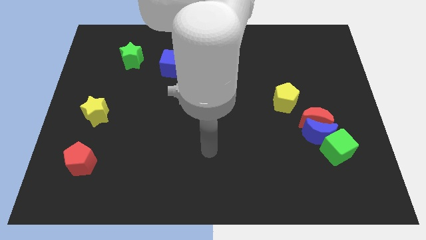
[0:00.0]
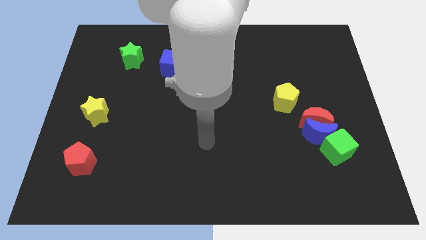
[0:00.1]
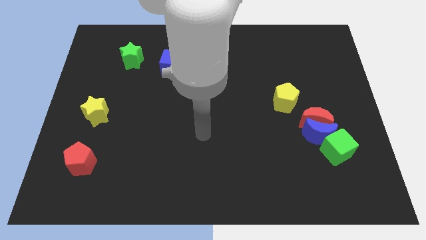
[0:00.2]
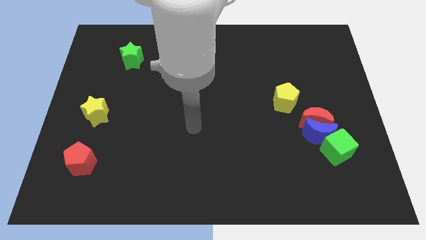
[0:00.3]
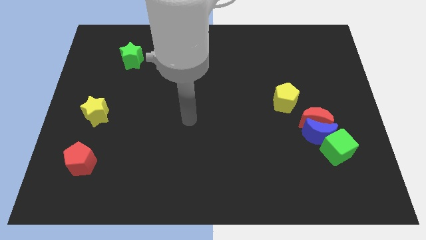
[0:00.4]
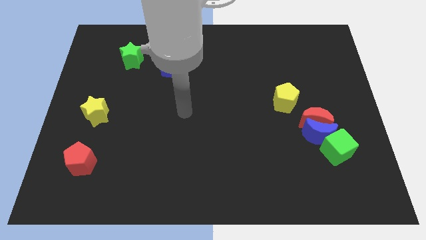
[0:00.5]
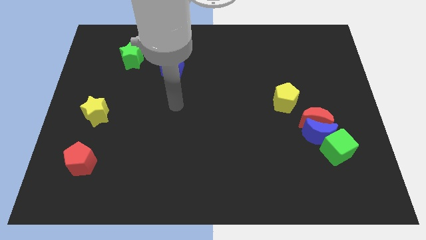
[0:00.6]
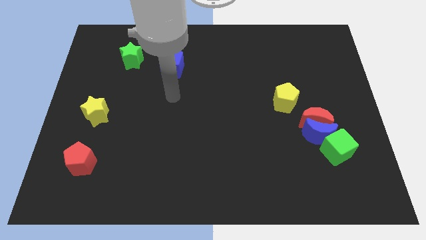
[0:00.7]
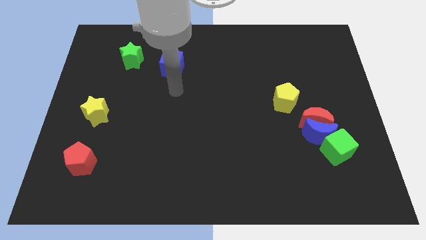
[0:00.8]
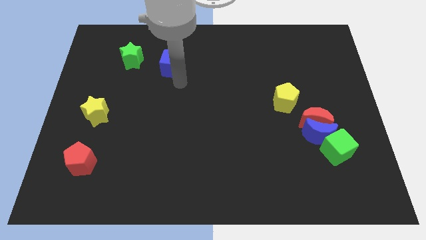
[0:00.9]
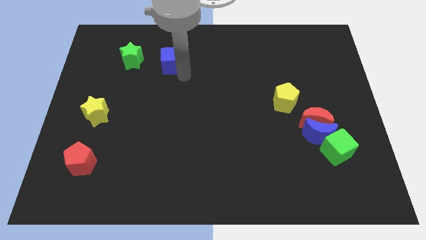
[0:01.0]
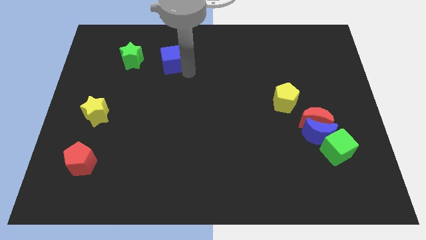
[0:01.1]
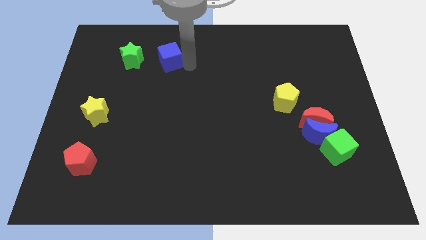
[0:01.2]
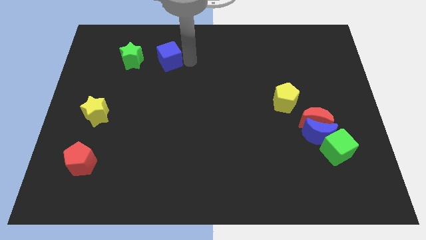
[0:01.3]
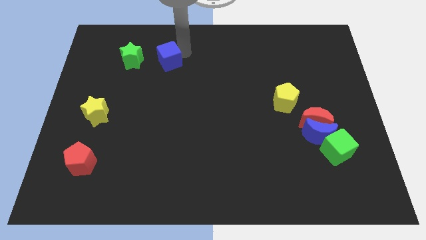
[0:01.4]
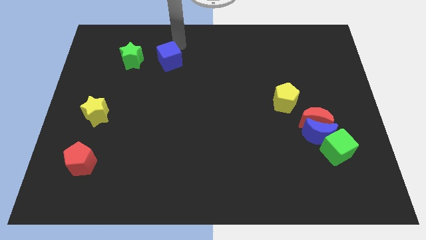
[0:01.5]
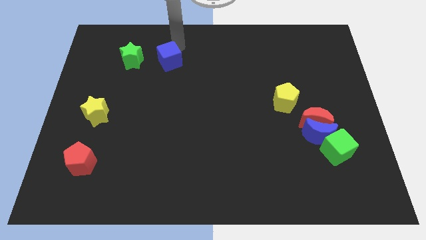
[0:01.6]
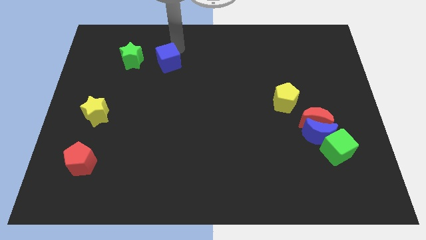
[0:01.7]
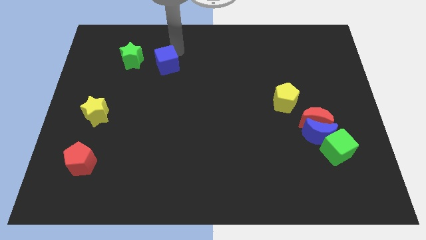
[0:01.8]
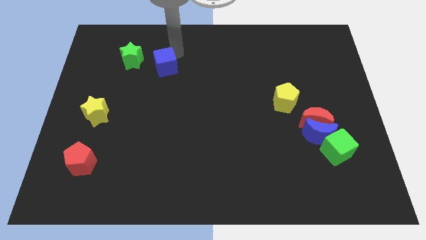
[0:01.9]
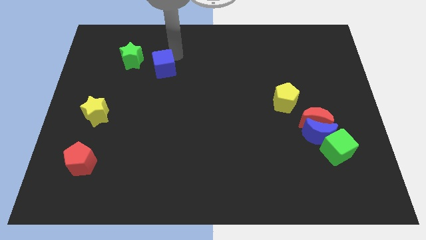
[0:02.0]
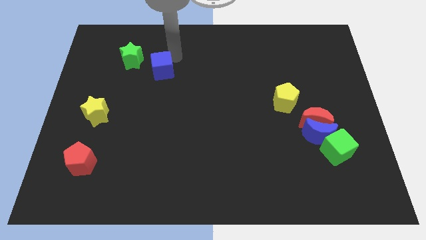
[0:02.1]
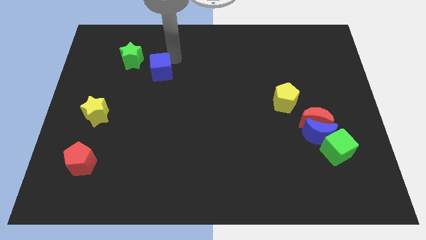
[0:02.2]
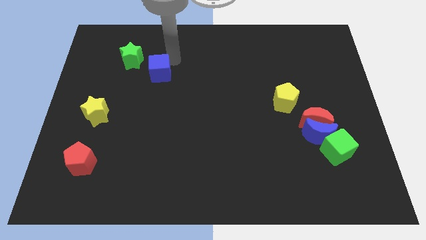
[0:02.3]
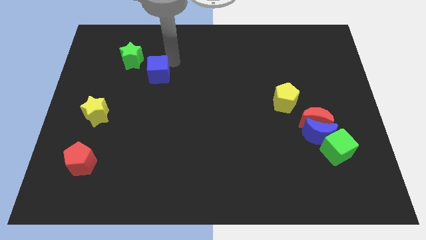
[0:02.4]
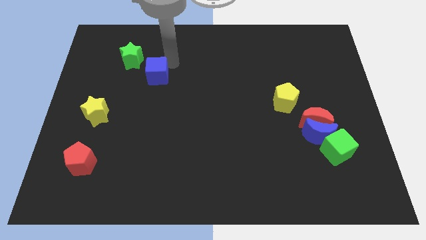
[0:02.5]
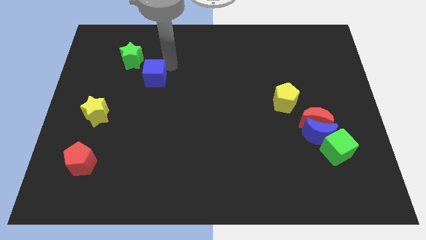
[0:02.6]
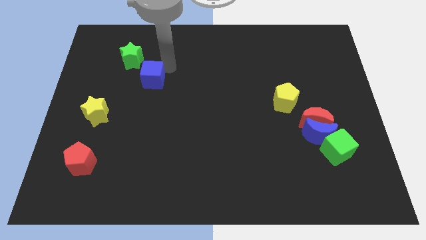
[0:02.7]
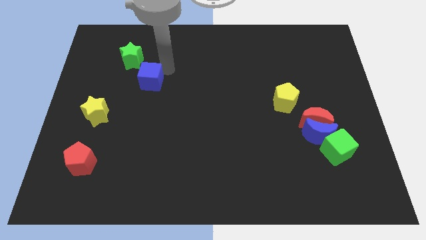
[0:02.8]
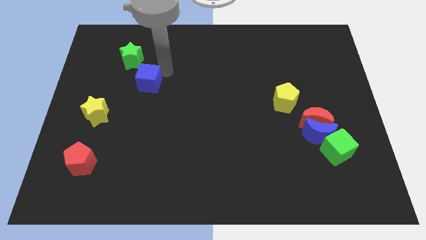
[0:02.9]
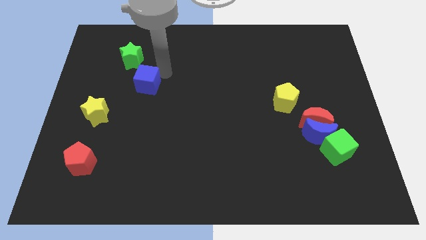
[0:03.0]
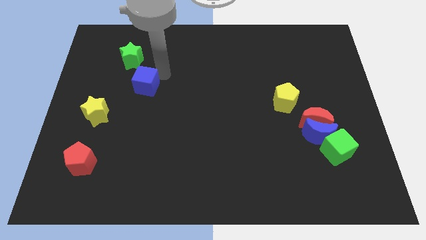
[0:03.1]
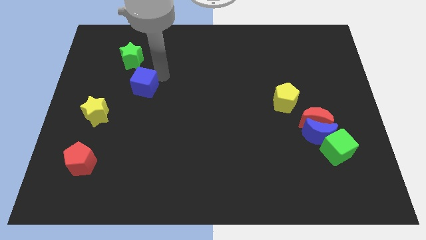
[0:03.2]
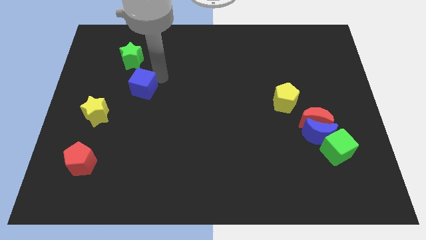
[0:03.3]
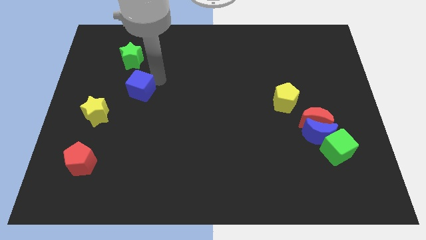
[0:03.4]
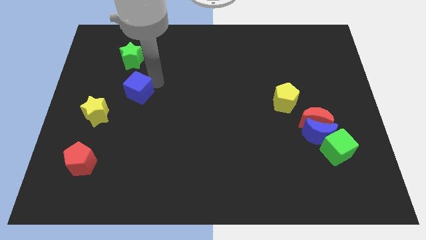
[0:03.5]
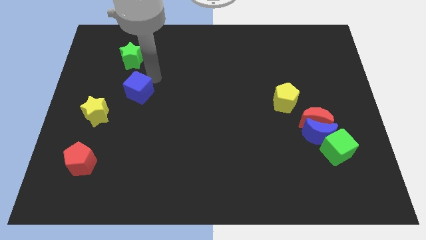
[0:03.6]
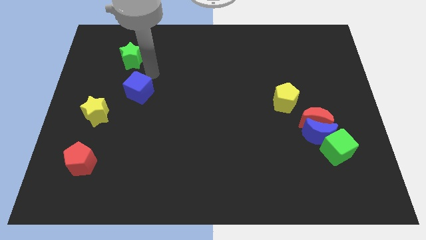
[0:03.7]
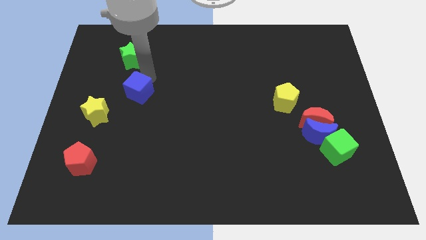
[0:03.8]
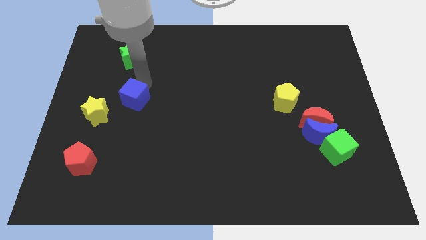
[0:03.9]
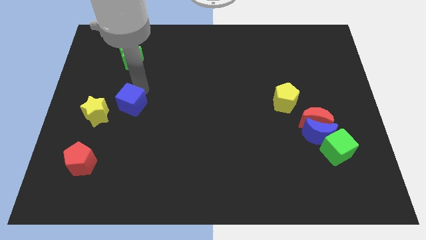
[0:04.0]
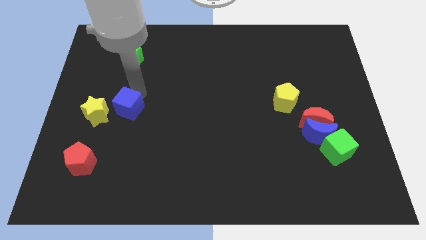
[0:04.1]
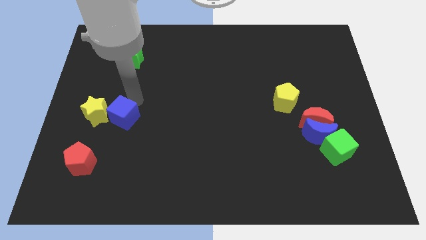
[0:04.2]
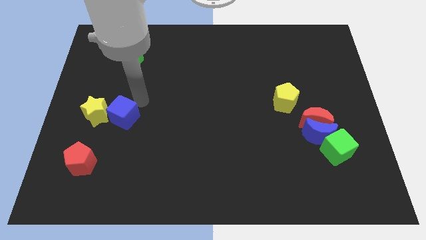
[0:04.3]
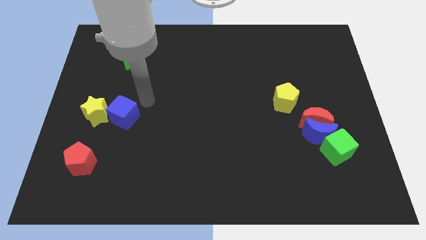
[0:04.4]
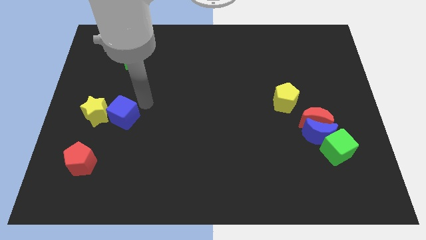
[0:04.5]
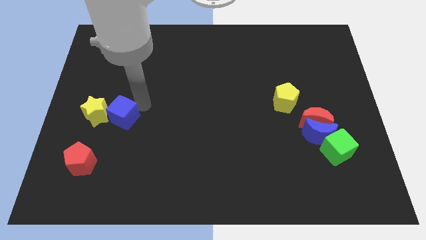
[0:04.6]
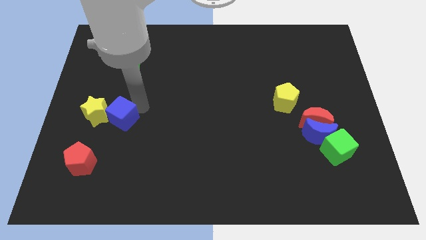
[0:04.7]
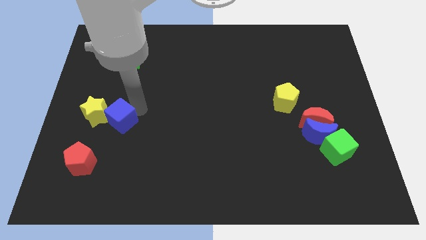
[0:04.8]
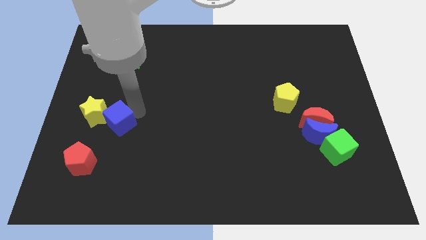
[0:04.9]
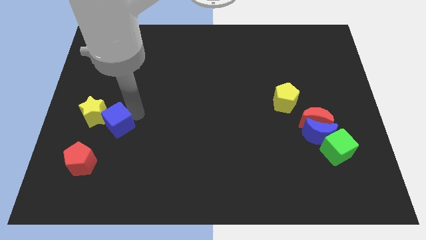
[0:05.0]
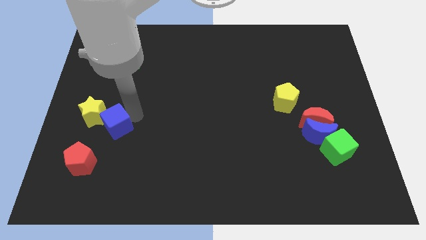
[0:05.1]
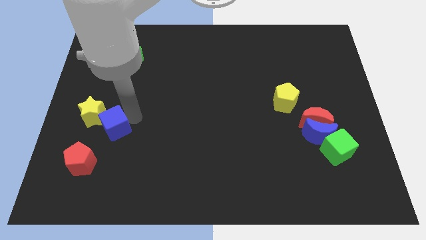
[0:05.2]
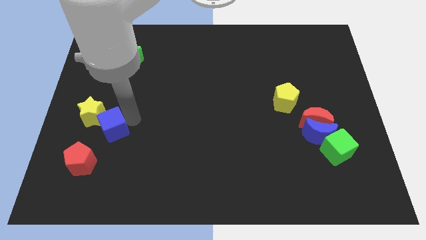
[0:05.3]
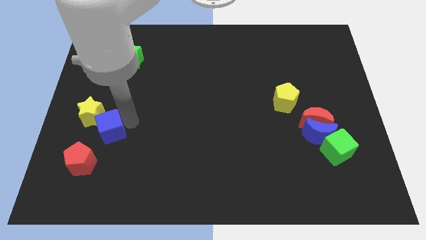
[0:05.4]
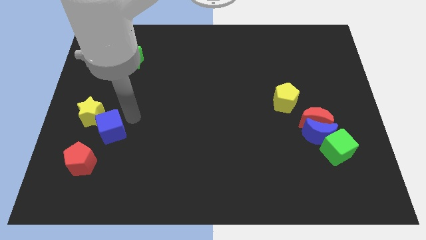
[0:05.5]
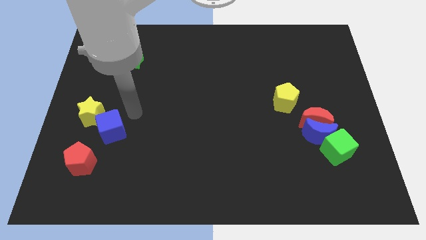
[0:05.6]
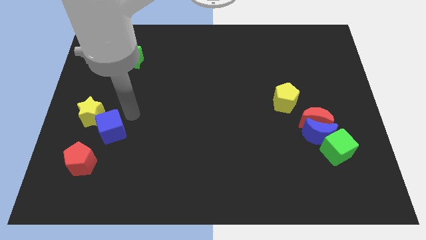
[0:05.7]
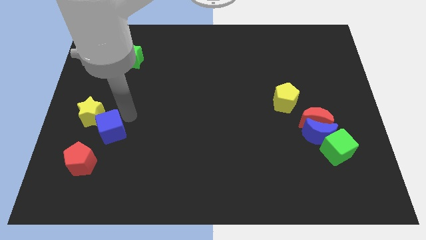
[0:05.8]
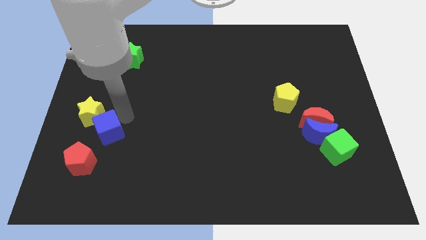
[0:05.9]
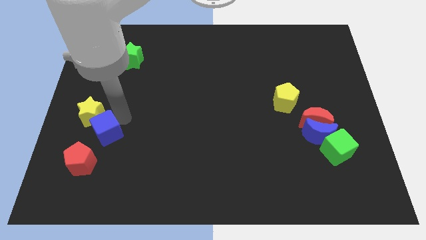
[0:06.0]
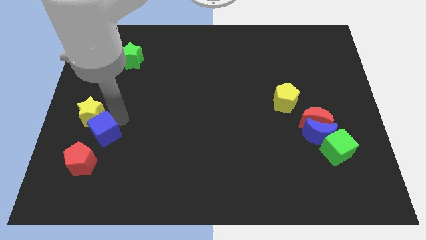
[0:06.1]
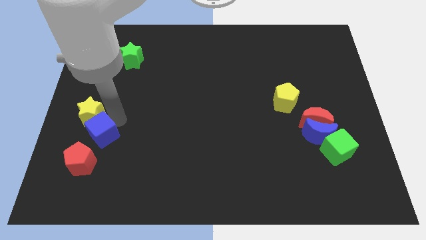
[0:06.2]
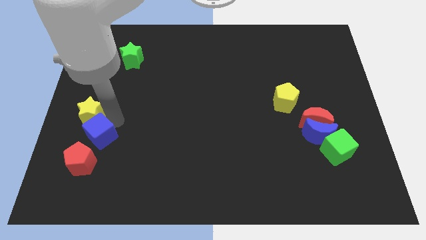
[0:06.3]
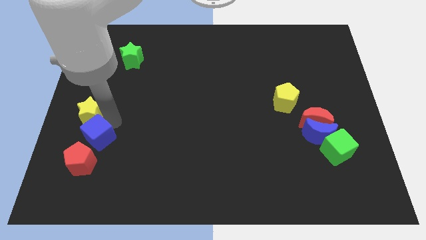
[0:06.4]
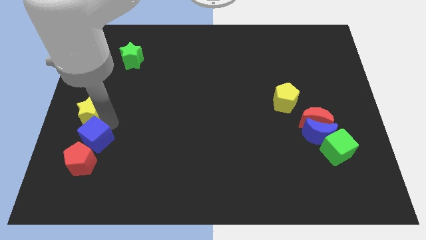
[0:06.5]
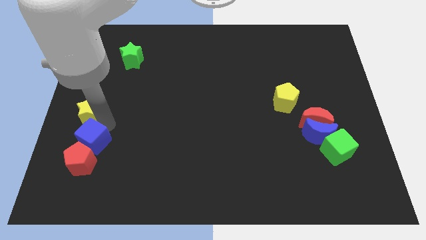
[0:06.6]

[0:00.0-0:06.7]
put the blue cube to the red pentagon

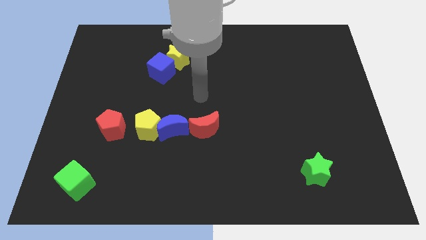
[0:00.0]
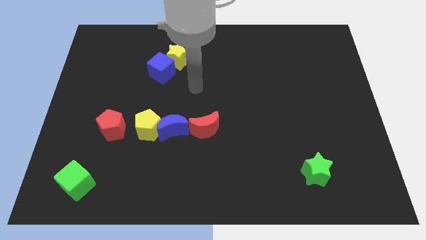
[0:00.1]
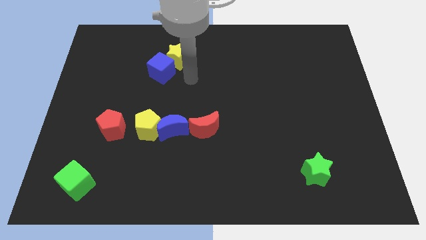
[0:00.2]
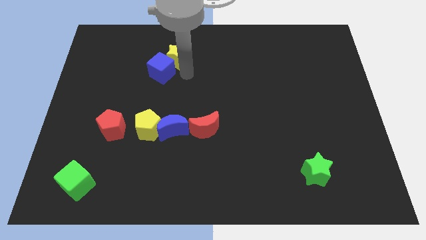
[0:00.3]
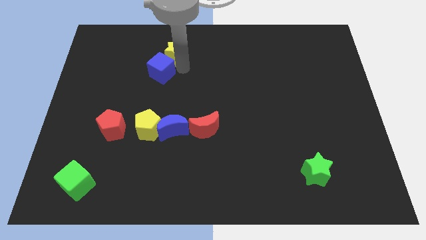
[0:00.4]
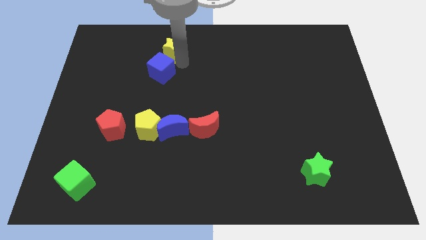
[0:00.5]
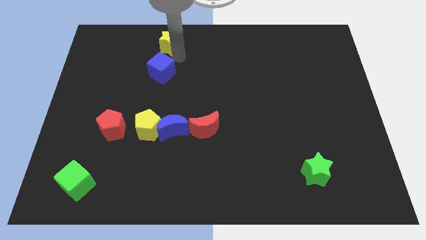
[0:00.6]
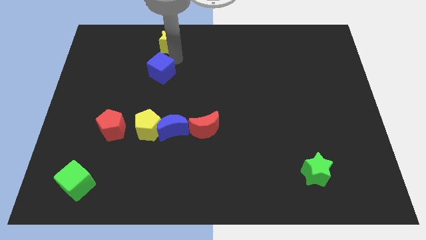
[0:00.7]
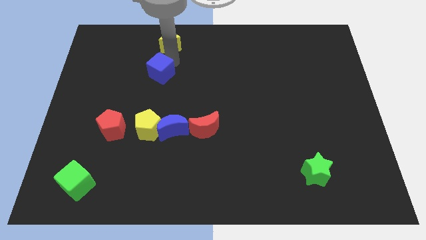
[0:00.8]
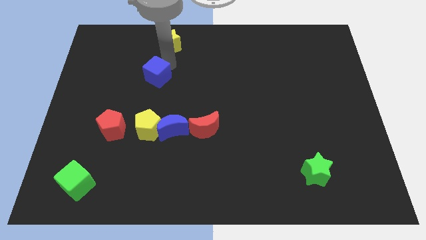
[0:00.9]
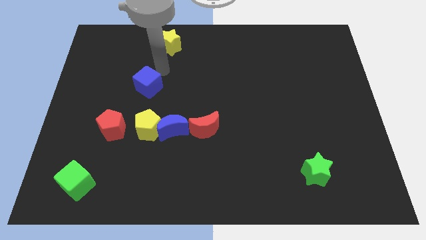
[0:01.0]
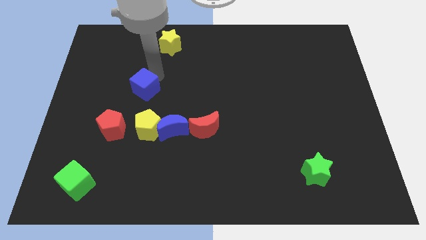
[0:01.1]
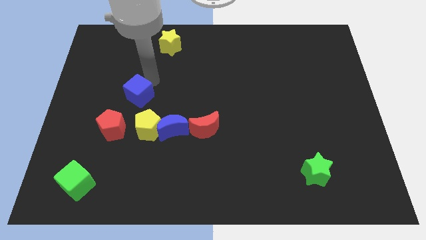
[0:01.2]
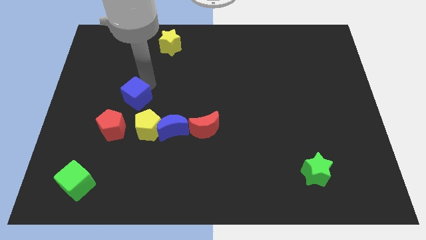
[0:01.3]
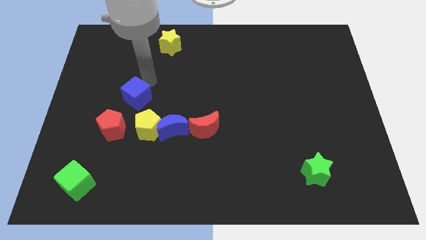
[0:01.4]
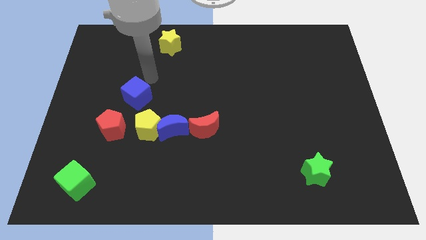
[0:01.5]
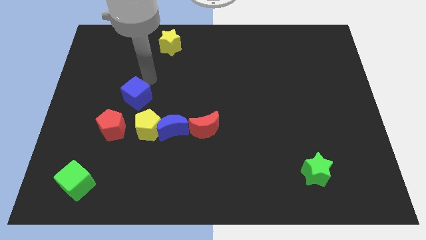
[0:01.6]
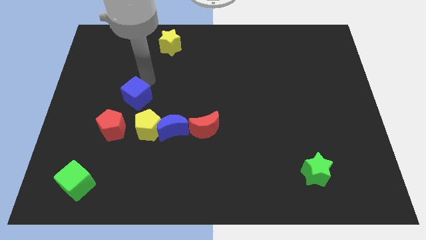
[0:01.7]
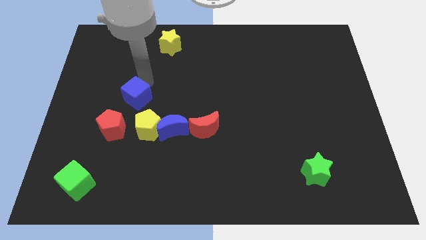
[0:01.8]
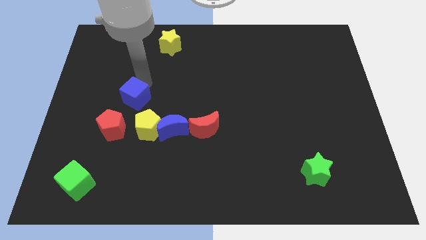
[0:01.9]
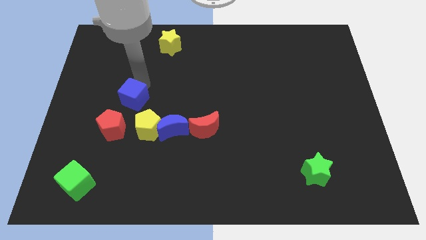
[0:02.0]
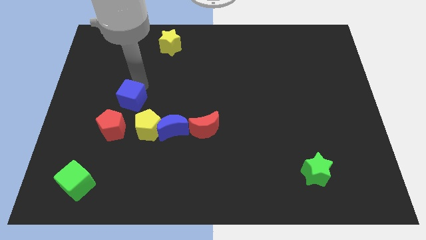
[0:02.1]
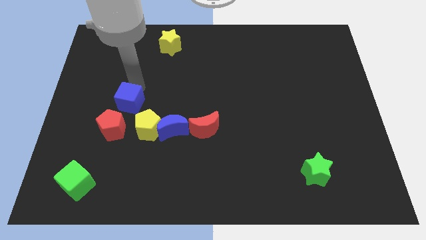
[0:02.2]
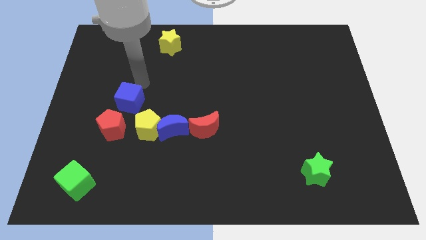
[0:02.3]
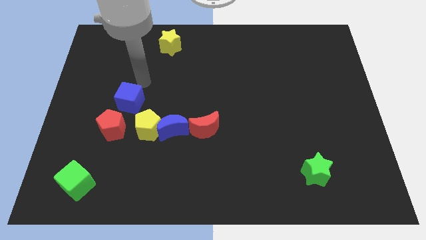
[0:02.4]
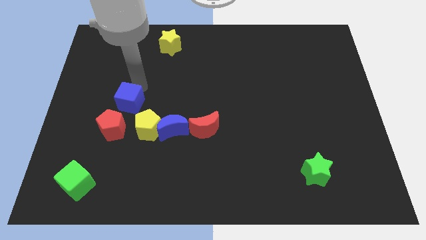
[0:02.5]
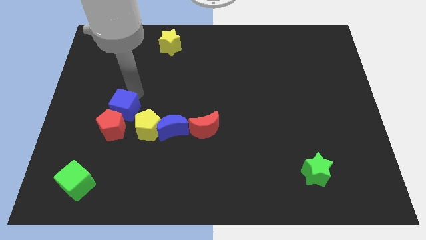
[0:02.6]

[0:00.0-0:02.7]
put the blue cube towards the red pentagon
